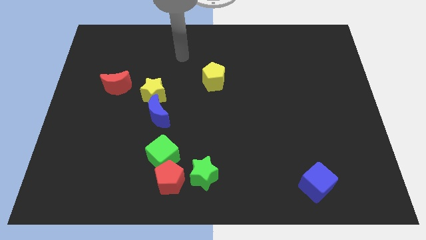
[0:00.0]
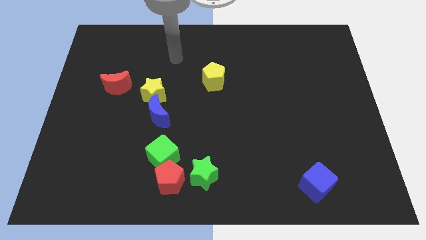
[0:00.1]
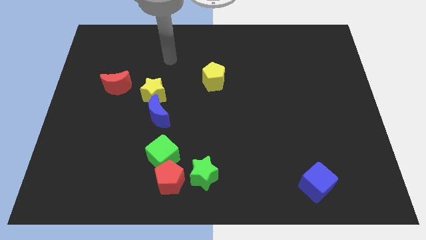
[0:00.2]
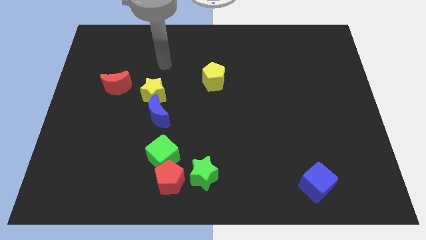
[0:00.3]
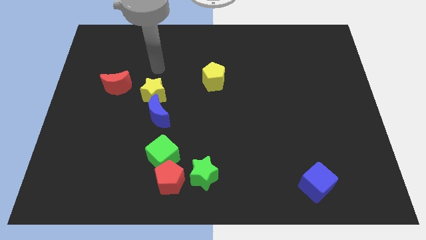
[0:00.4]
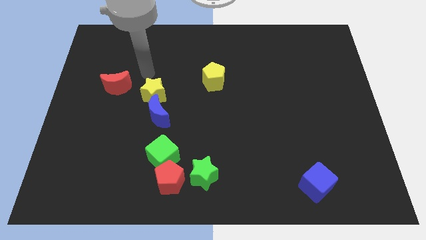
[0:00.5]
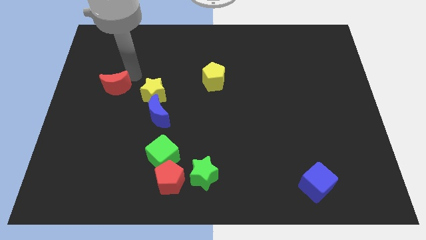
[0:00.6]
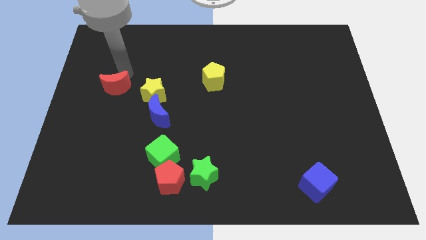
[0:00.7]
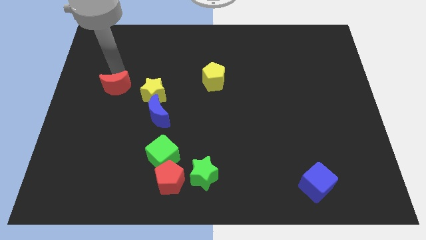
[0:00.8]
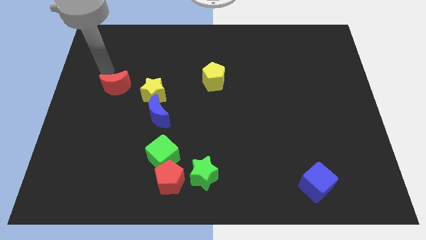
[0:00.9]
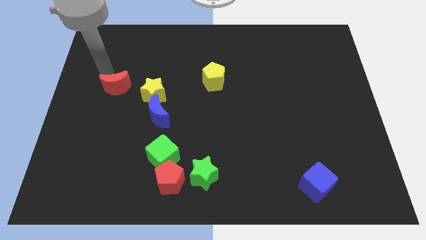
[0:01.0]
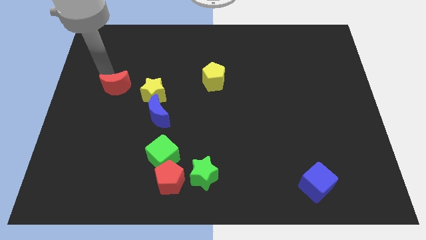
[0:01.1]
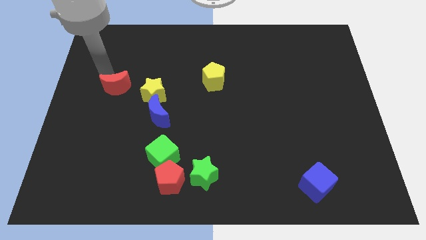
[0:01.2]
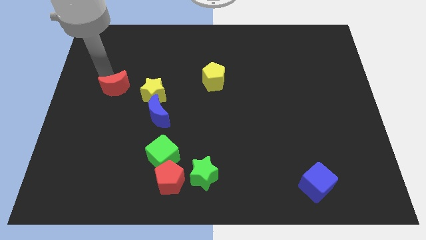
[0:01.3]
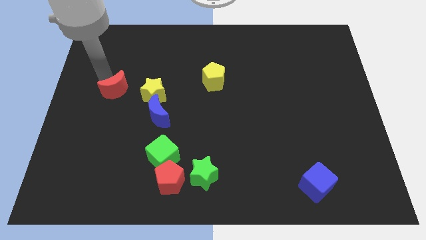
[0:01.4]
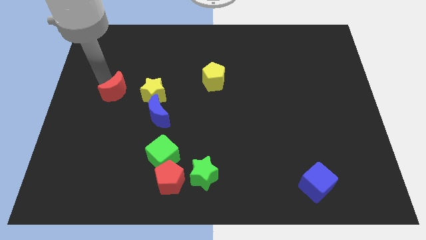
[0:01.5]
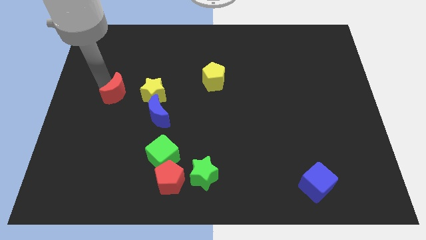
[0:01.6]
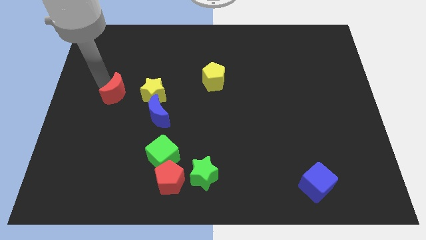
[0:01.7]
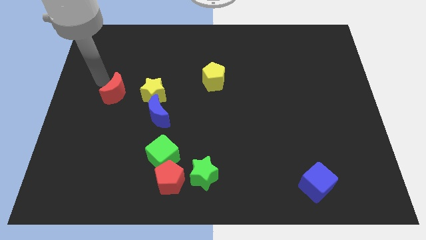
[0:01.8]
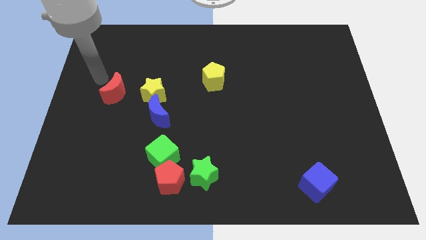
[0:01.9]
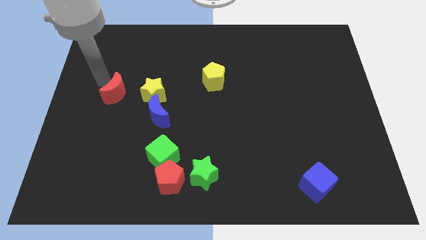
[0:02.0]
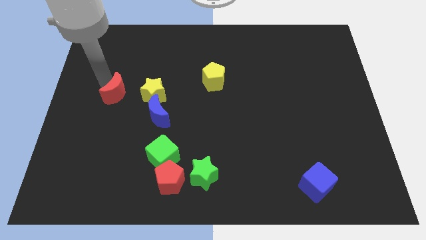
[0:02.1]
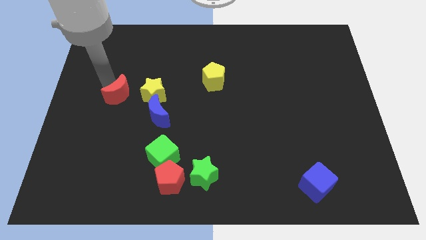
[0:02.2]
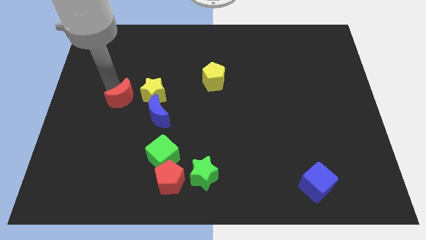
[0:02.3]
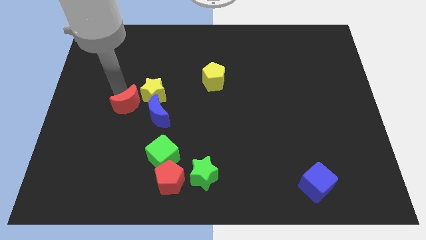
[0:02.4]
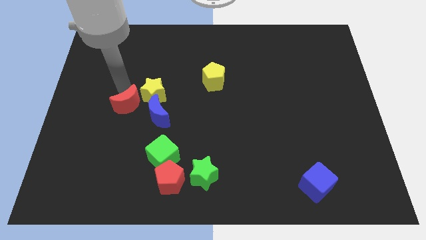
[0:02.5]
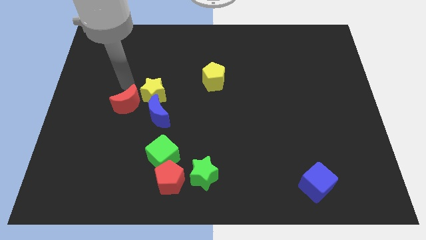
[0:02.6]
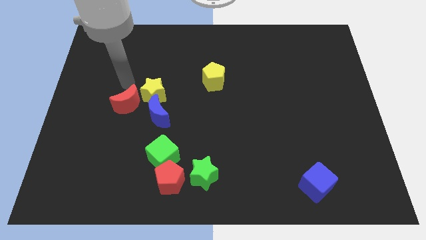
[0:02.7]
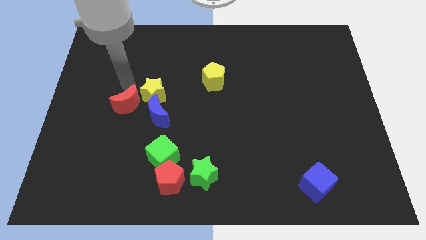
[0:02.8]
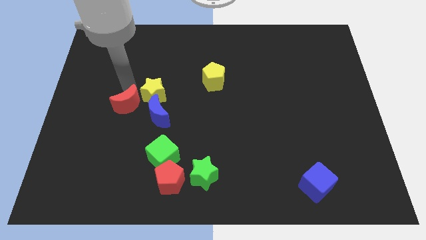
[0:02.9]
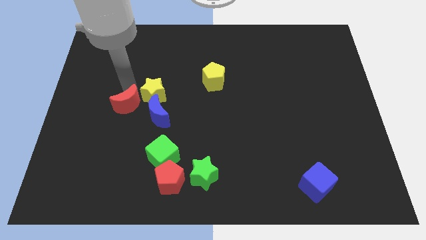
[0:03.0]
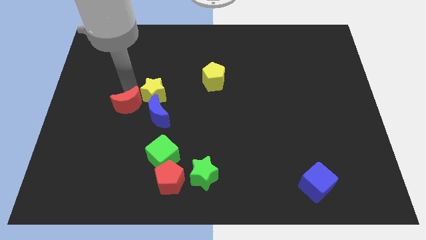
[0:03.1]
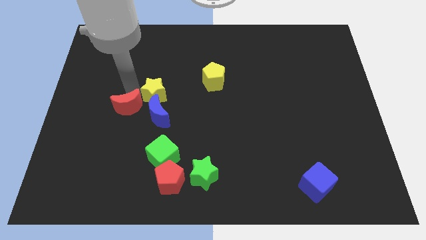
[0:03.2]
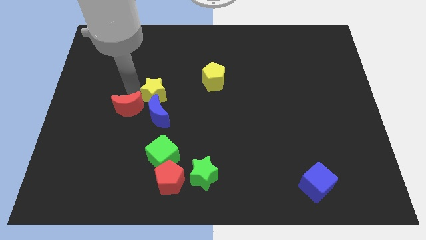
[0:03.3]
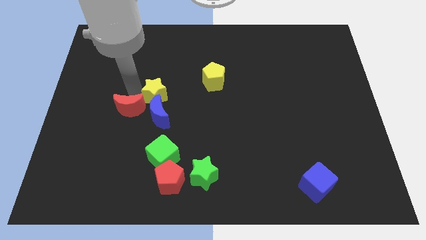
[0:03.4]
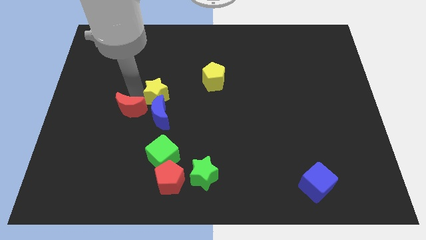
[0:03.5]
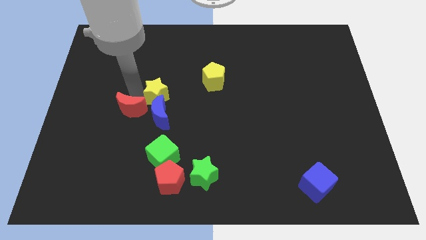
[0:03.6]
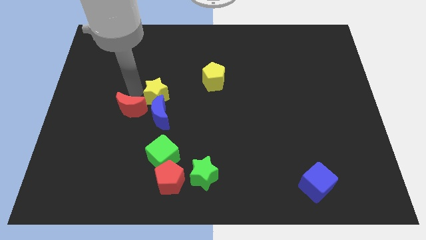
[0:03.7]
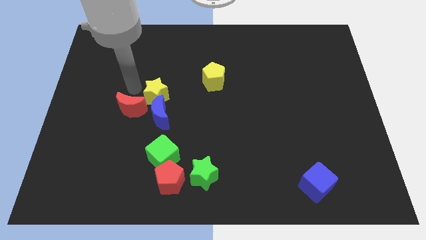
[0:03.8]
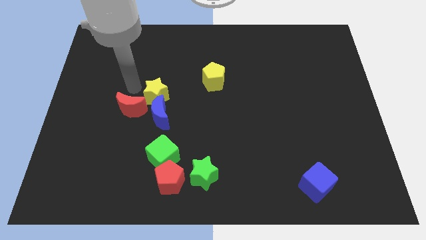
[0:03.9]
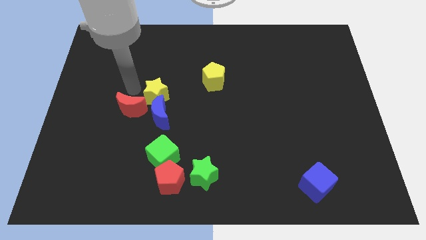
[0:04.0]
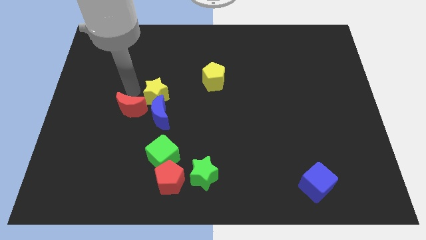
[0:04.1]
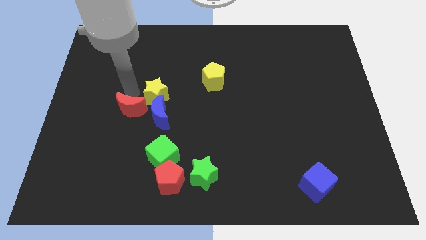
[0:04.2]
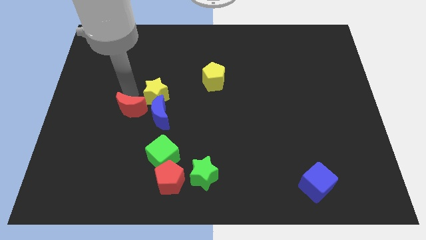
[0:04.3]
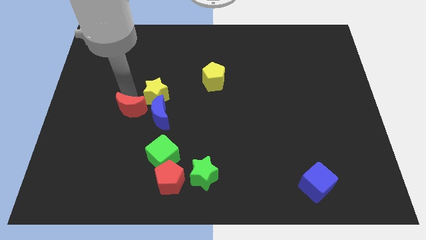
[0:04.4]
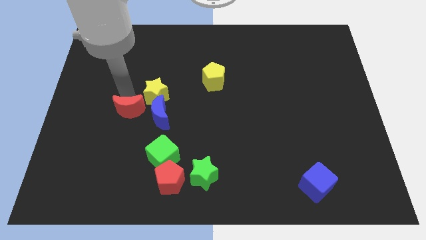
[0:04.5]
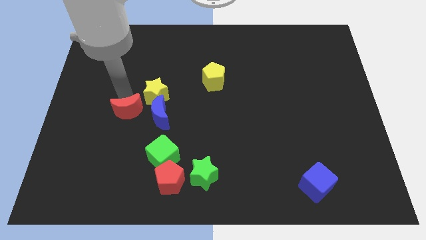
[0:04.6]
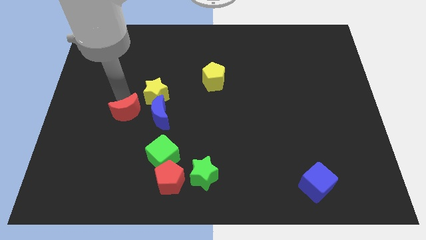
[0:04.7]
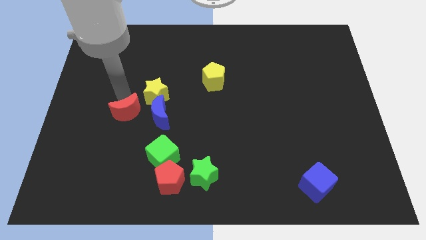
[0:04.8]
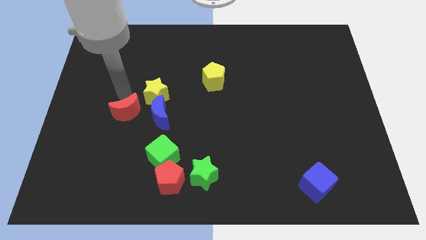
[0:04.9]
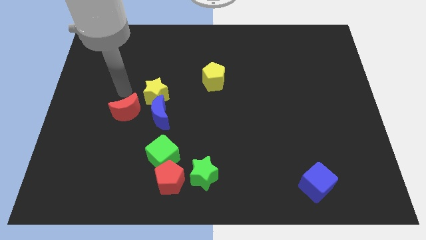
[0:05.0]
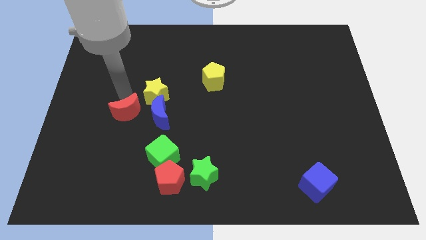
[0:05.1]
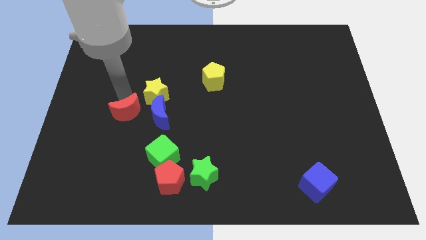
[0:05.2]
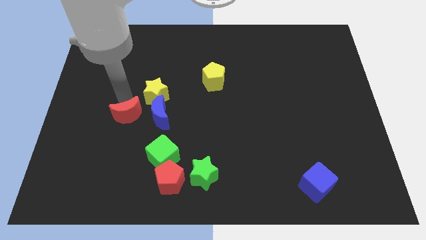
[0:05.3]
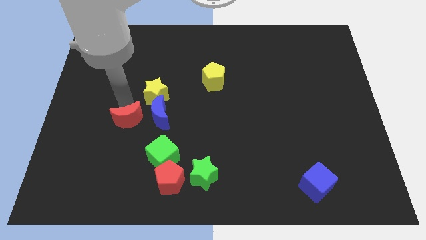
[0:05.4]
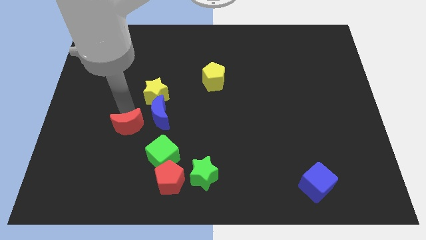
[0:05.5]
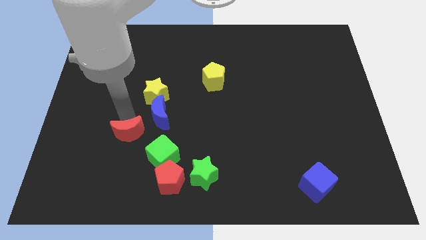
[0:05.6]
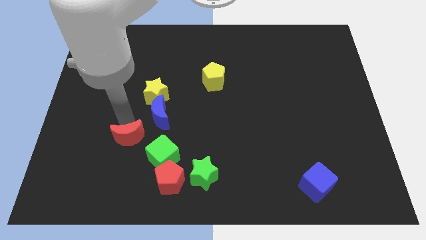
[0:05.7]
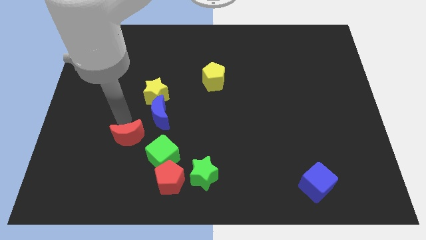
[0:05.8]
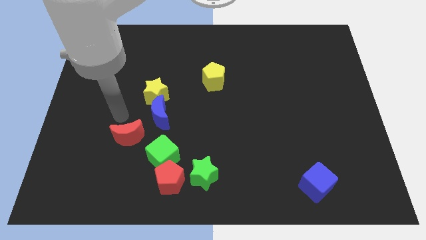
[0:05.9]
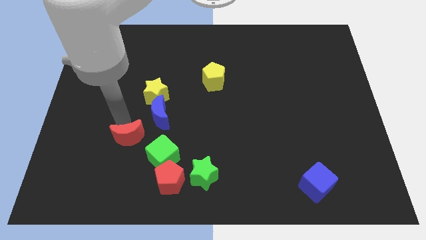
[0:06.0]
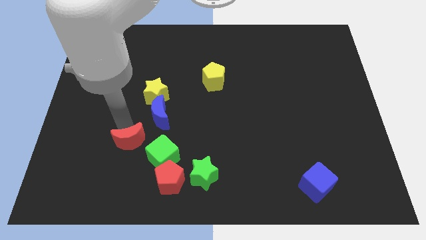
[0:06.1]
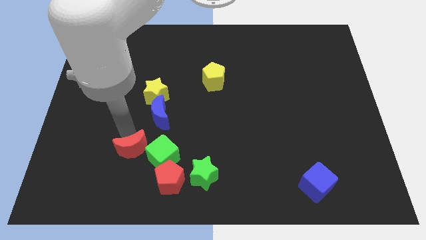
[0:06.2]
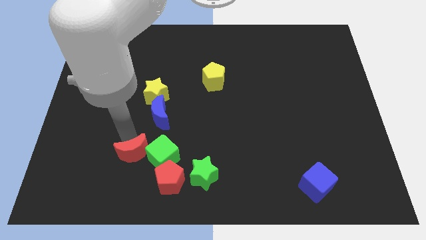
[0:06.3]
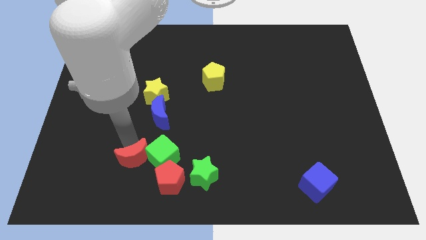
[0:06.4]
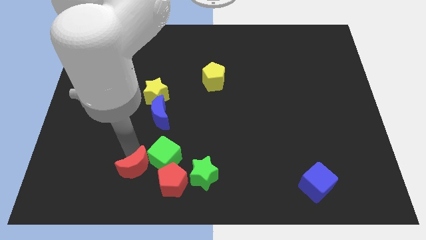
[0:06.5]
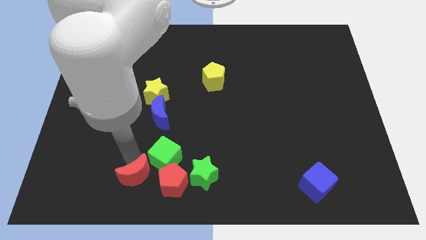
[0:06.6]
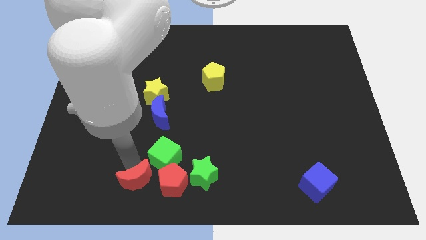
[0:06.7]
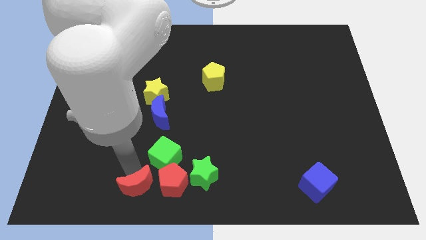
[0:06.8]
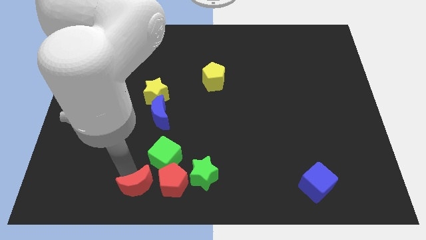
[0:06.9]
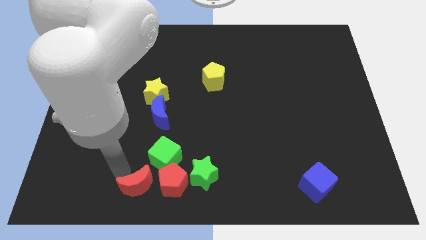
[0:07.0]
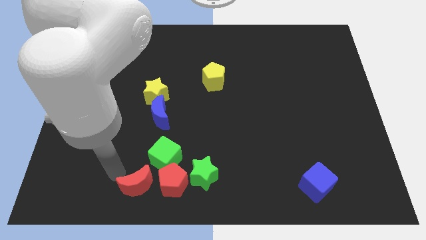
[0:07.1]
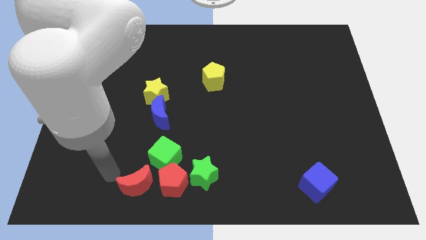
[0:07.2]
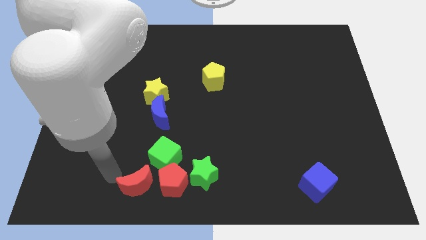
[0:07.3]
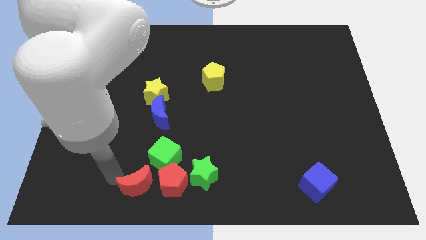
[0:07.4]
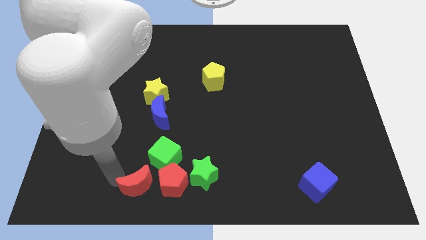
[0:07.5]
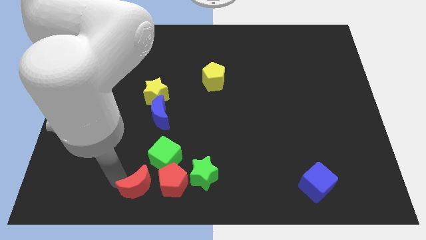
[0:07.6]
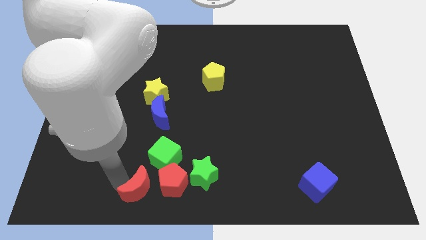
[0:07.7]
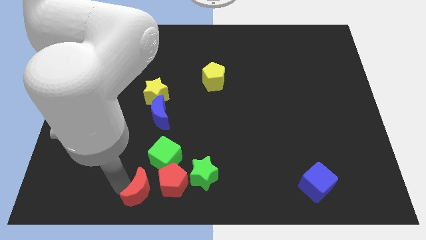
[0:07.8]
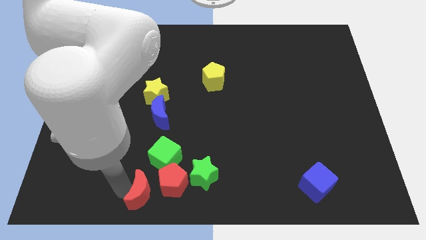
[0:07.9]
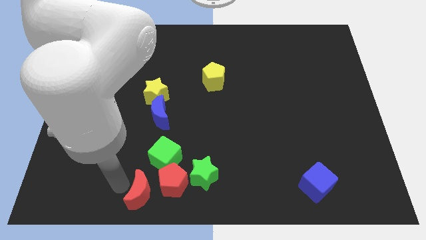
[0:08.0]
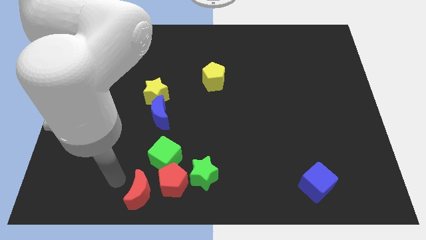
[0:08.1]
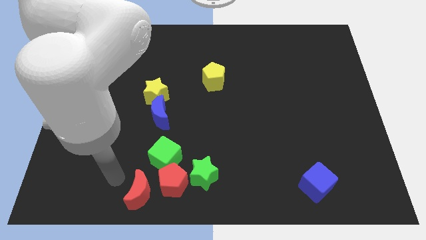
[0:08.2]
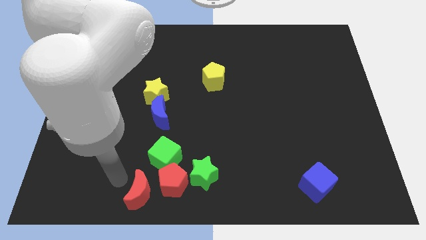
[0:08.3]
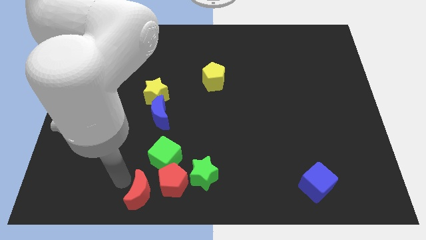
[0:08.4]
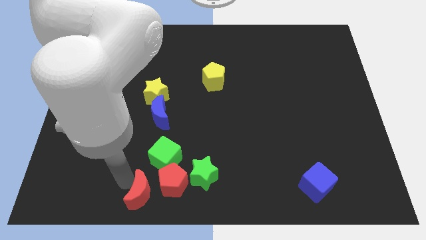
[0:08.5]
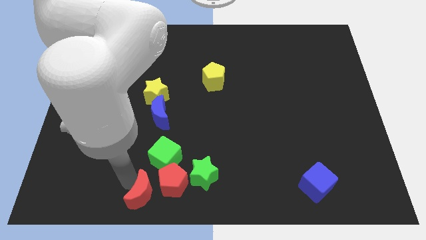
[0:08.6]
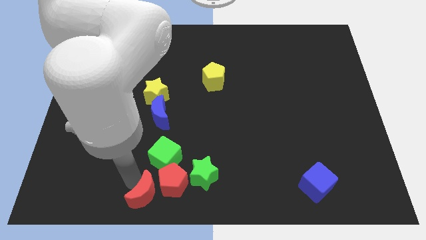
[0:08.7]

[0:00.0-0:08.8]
move the red moon to the bottom side
